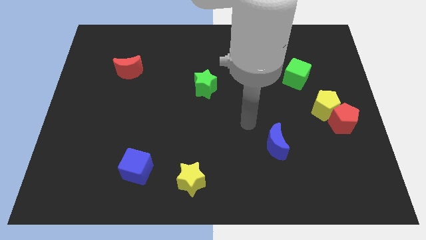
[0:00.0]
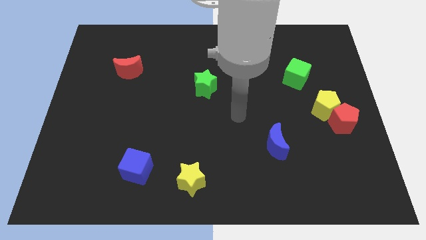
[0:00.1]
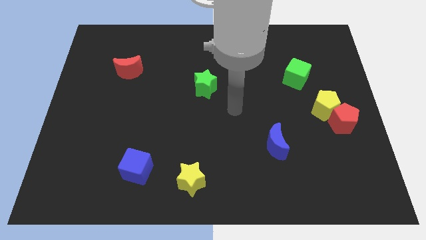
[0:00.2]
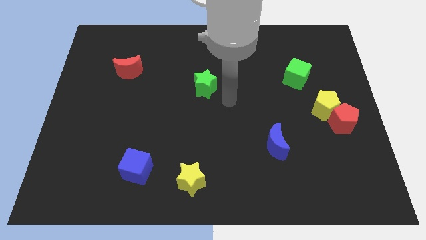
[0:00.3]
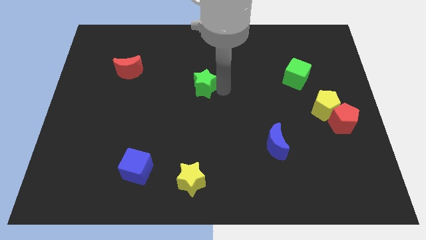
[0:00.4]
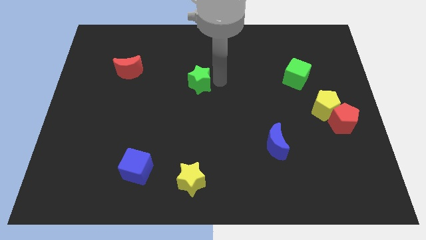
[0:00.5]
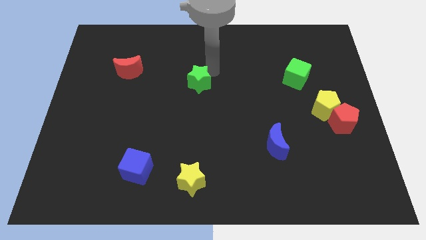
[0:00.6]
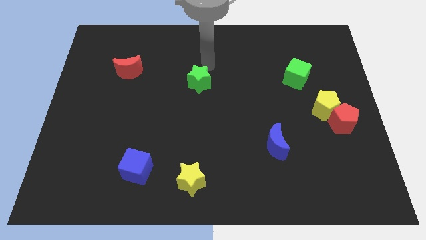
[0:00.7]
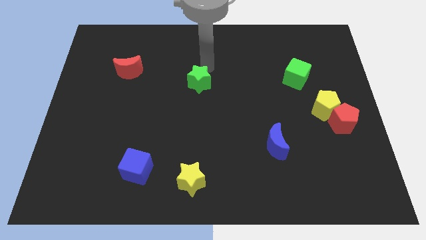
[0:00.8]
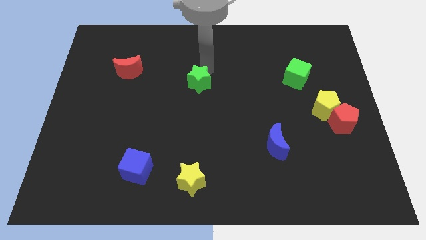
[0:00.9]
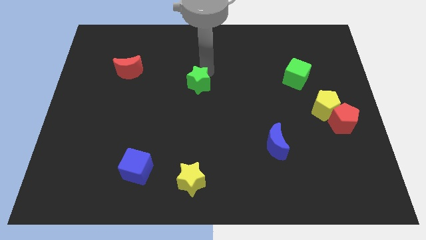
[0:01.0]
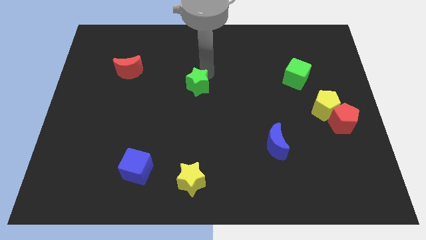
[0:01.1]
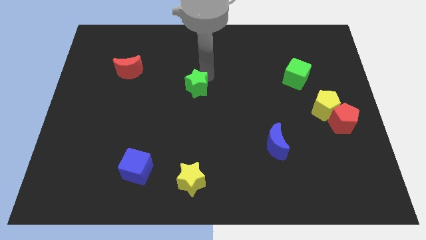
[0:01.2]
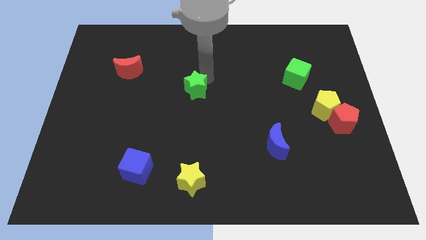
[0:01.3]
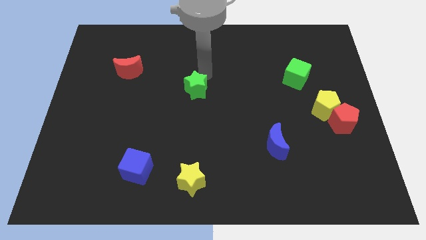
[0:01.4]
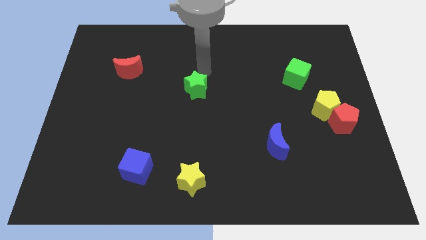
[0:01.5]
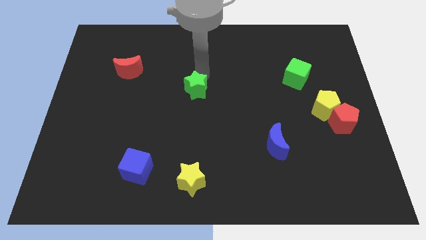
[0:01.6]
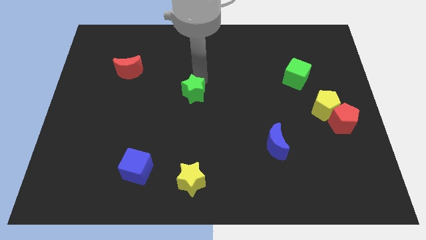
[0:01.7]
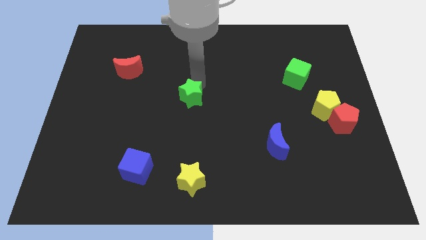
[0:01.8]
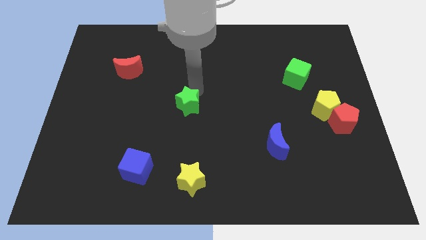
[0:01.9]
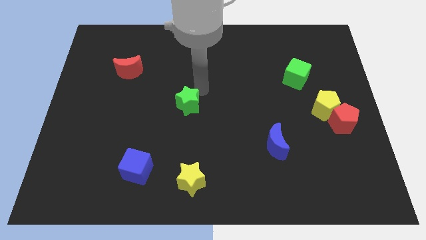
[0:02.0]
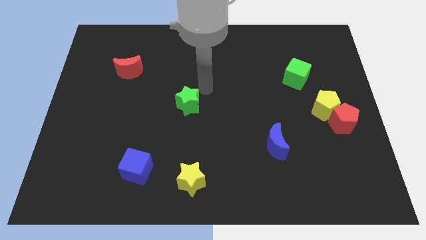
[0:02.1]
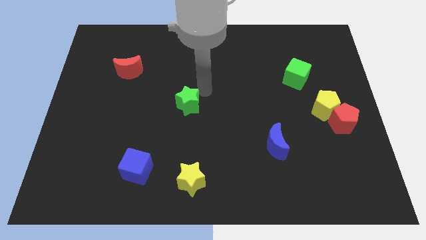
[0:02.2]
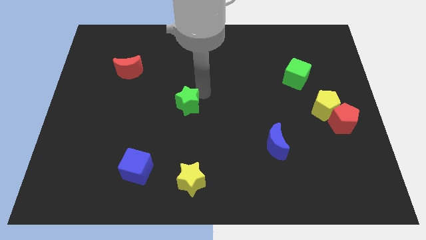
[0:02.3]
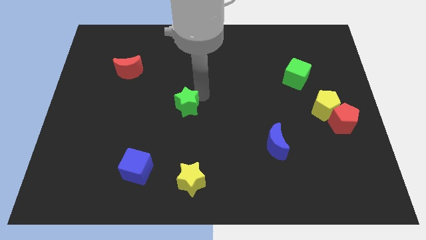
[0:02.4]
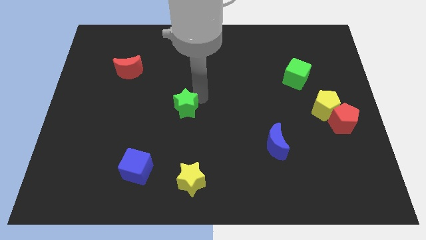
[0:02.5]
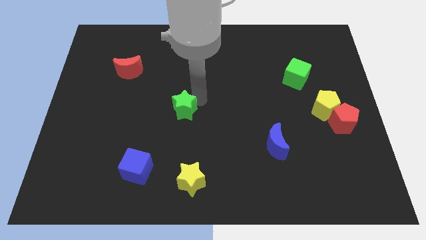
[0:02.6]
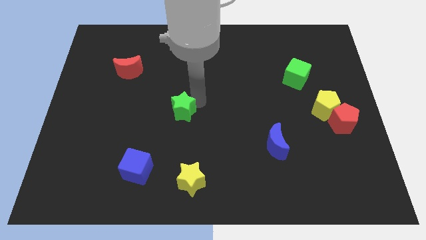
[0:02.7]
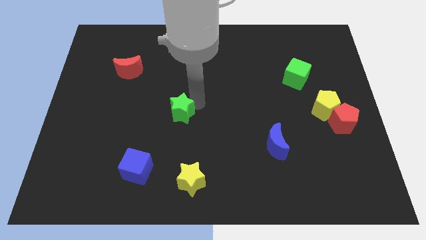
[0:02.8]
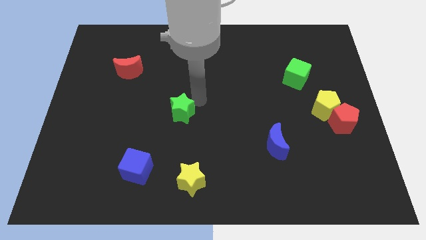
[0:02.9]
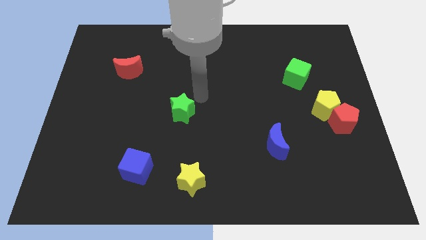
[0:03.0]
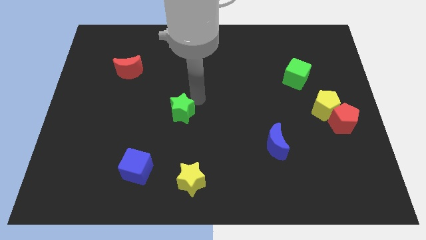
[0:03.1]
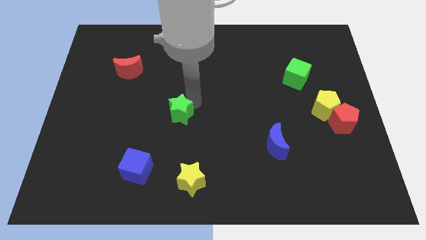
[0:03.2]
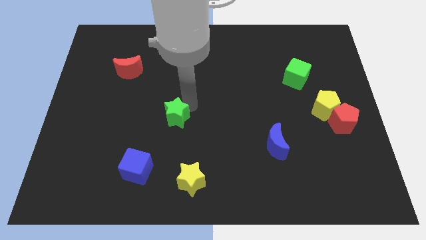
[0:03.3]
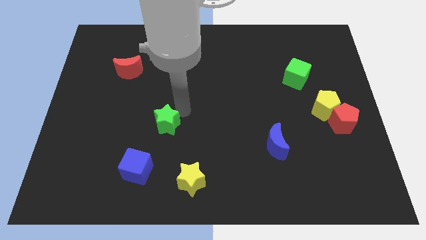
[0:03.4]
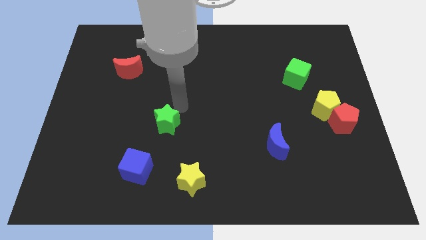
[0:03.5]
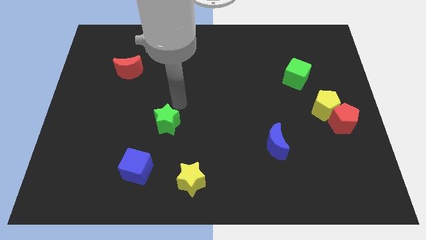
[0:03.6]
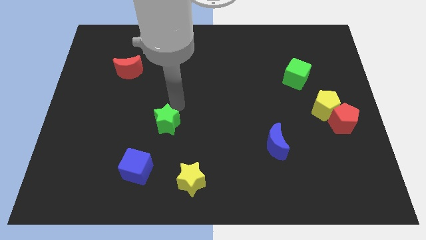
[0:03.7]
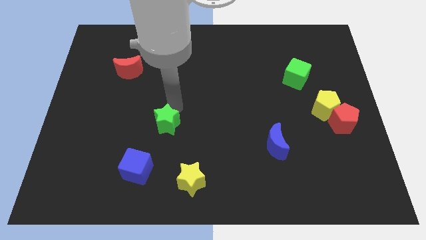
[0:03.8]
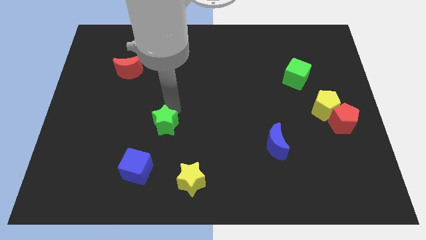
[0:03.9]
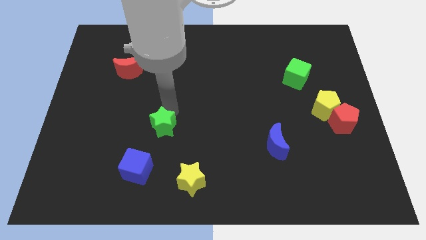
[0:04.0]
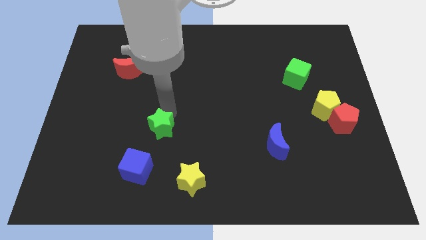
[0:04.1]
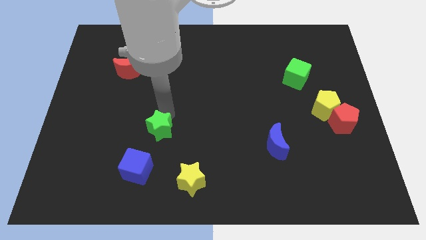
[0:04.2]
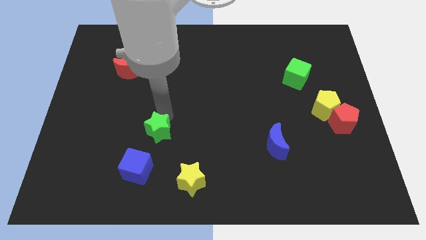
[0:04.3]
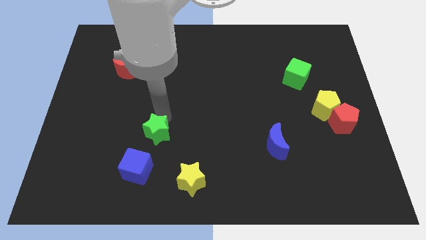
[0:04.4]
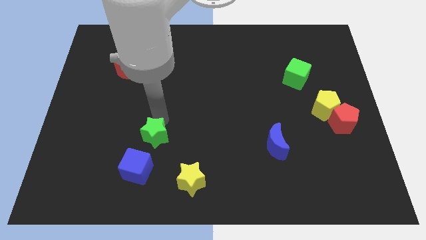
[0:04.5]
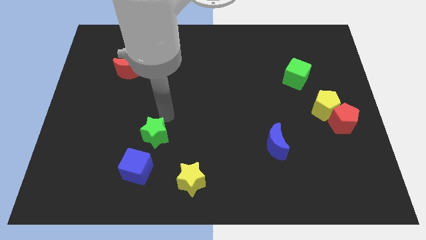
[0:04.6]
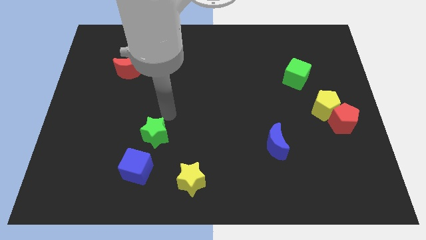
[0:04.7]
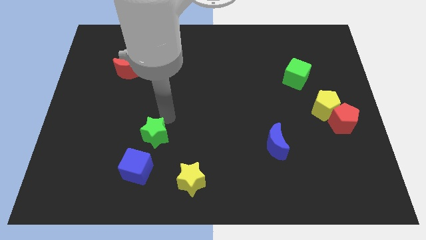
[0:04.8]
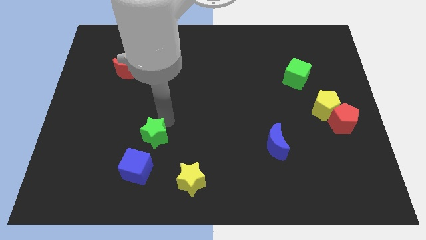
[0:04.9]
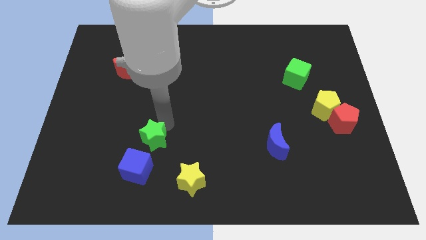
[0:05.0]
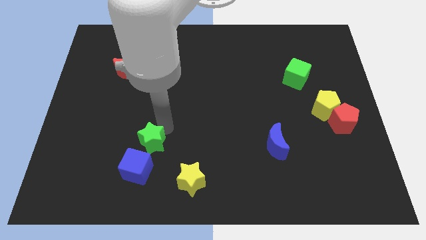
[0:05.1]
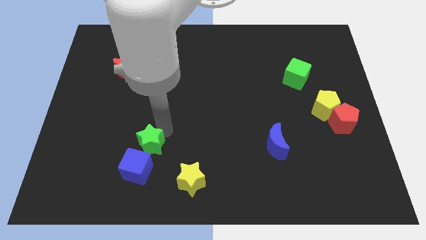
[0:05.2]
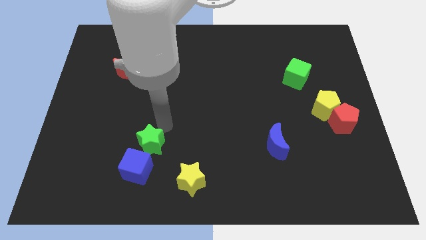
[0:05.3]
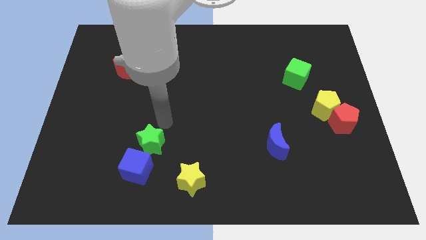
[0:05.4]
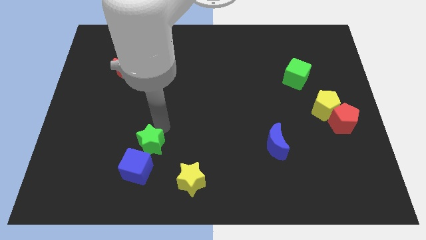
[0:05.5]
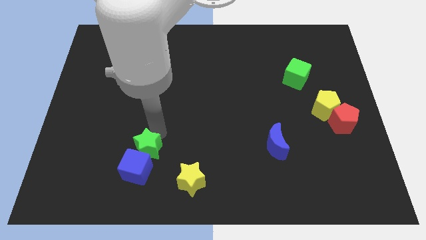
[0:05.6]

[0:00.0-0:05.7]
put the green star next to the blue cube

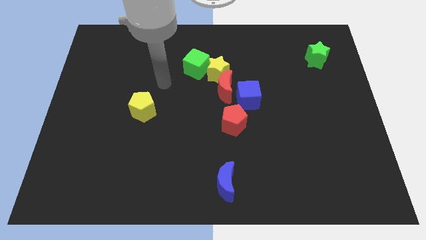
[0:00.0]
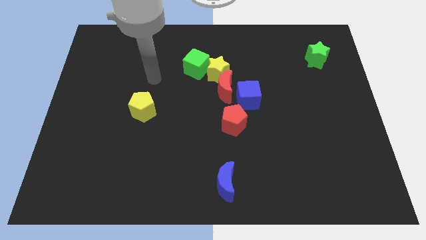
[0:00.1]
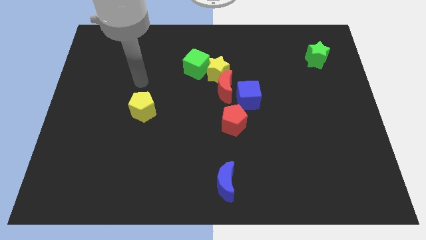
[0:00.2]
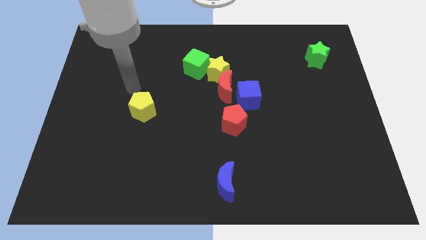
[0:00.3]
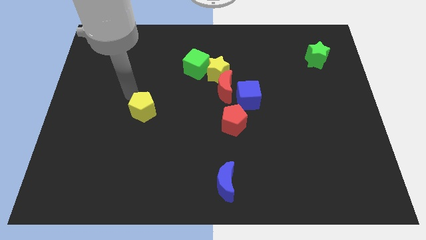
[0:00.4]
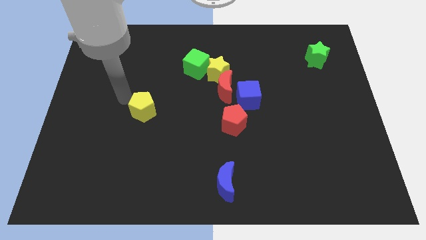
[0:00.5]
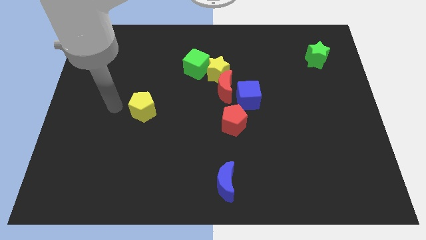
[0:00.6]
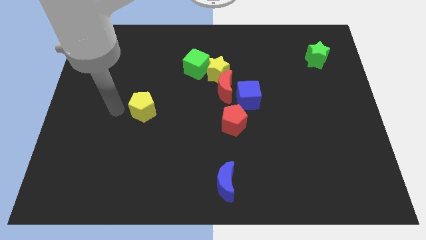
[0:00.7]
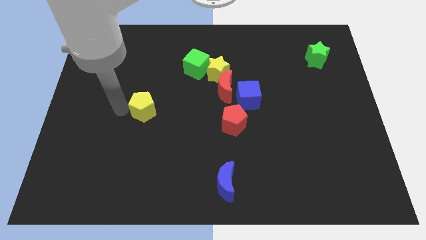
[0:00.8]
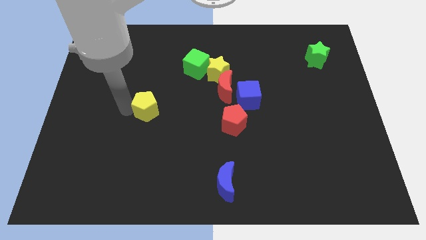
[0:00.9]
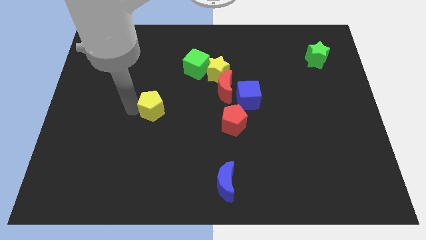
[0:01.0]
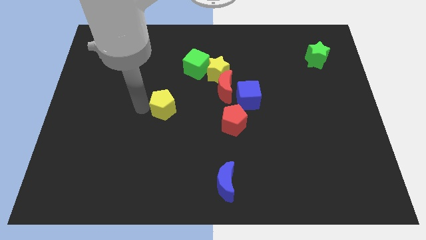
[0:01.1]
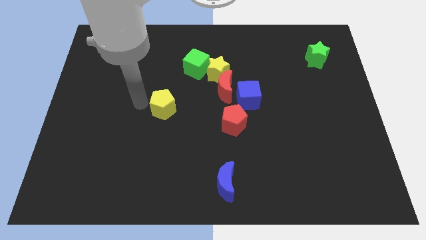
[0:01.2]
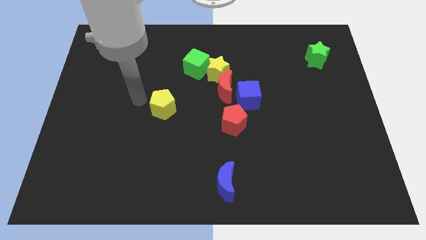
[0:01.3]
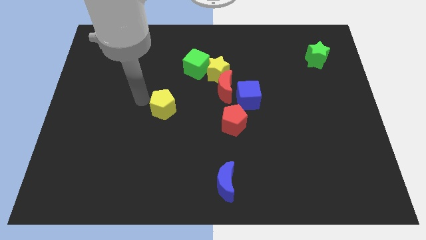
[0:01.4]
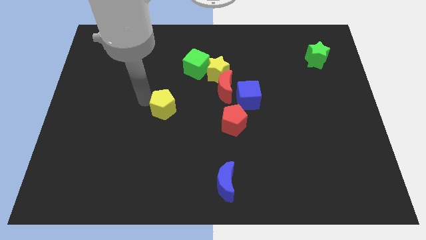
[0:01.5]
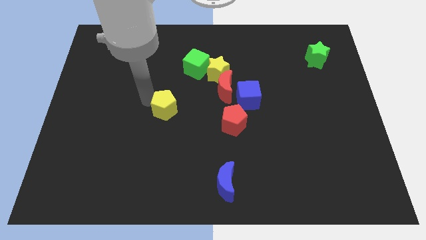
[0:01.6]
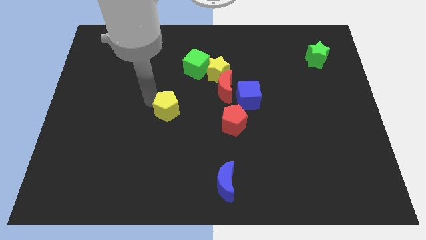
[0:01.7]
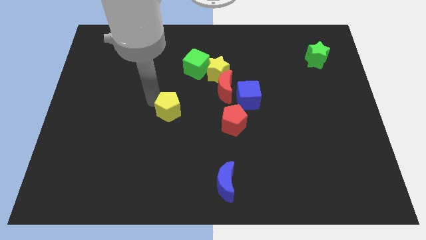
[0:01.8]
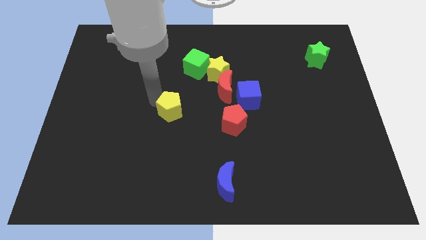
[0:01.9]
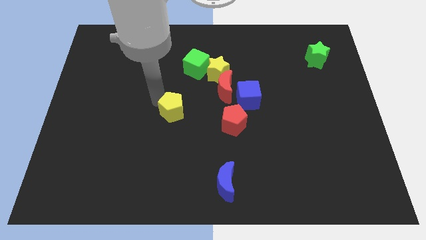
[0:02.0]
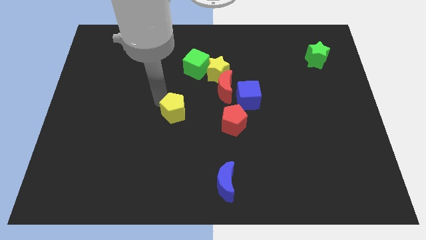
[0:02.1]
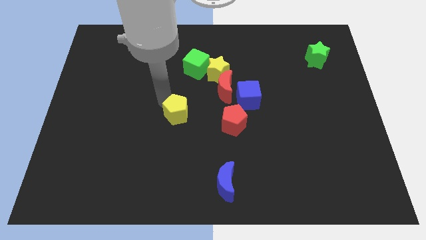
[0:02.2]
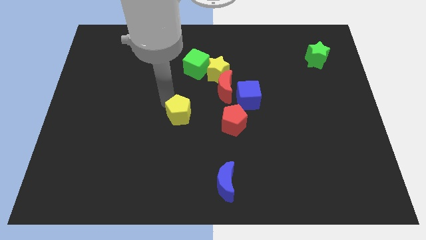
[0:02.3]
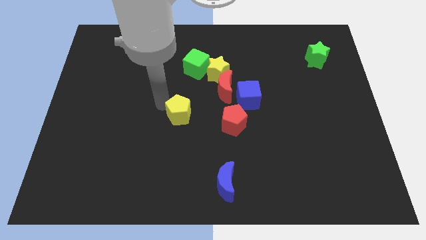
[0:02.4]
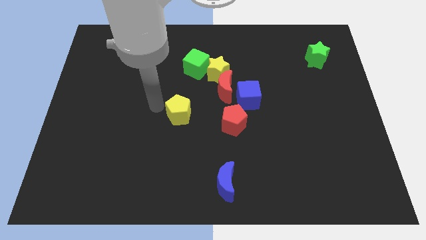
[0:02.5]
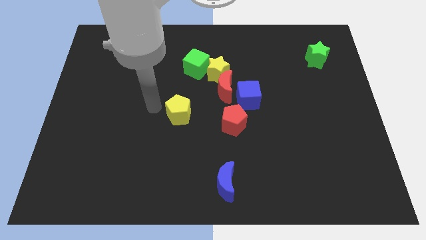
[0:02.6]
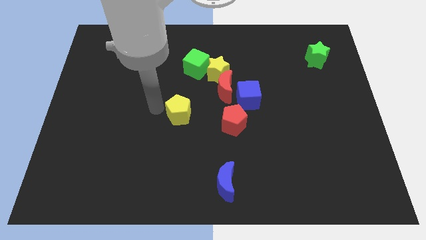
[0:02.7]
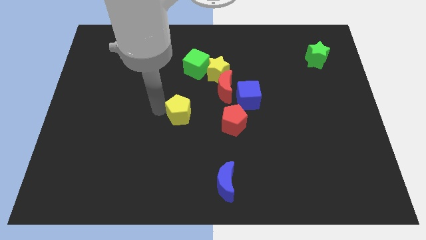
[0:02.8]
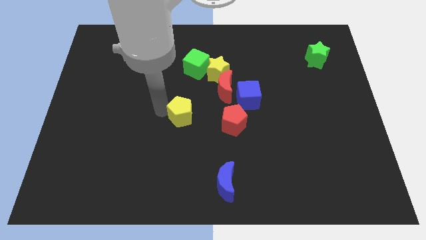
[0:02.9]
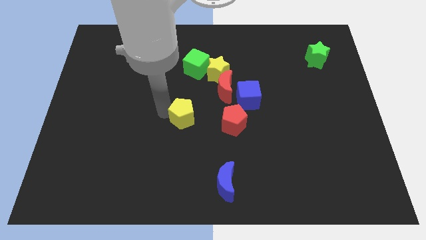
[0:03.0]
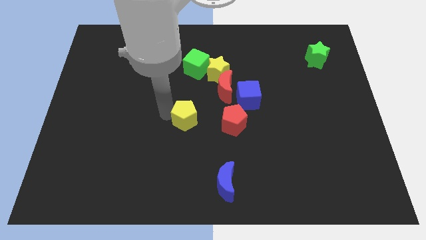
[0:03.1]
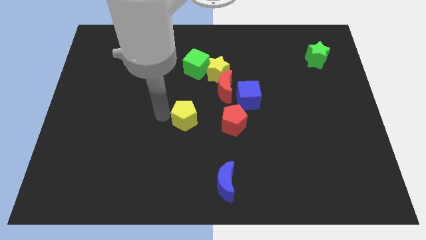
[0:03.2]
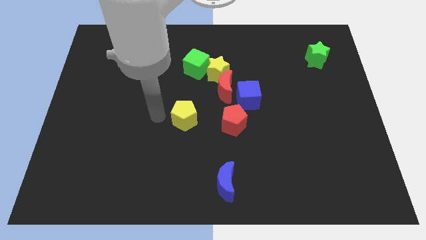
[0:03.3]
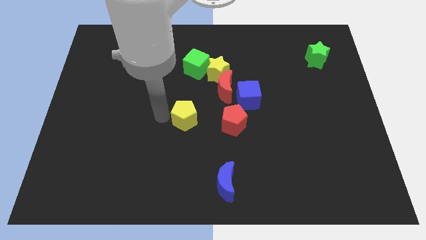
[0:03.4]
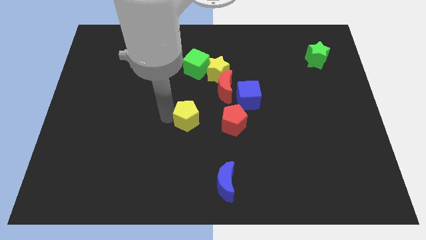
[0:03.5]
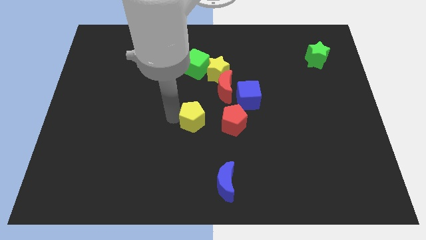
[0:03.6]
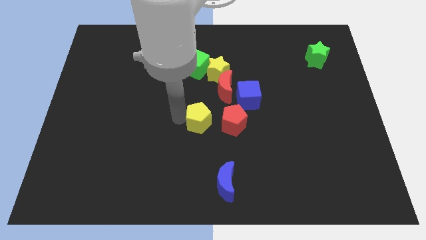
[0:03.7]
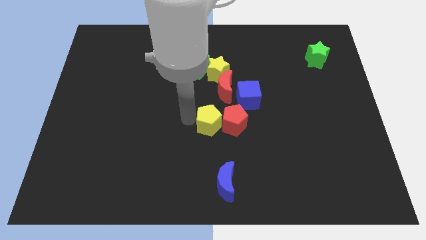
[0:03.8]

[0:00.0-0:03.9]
push the yellow pentagon towards the red pentagon
